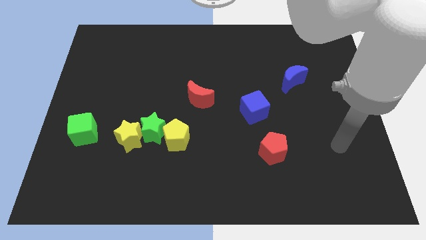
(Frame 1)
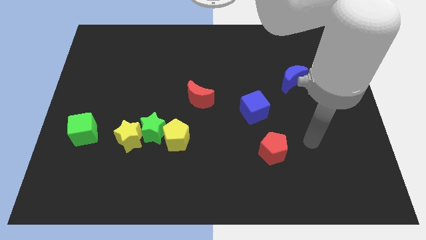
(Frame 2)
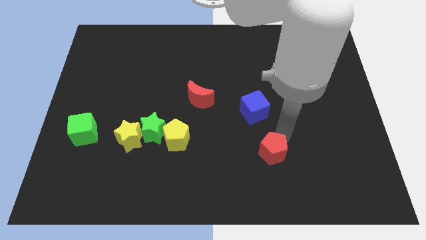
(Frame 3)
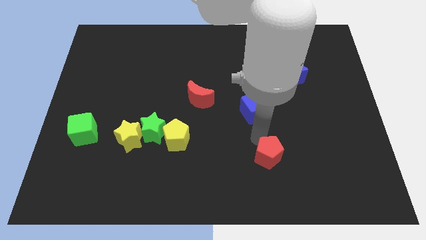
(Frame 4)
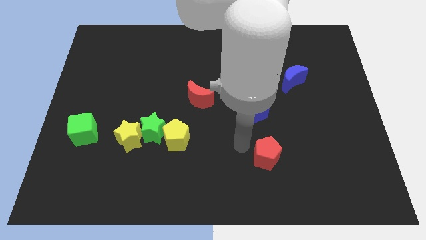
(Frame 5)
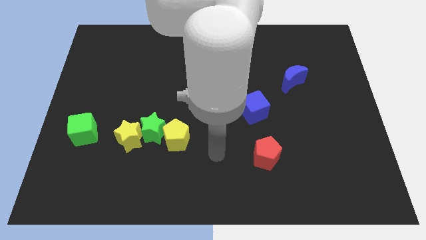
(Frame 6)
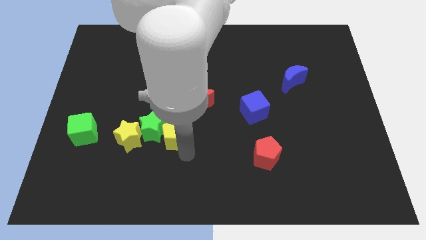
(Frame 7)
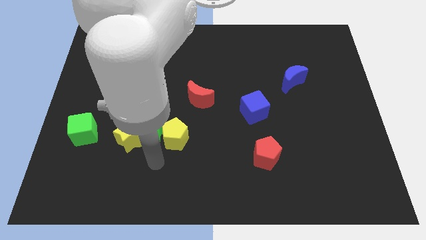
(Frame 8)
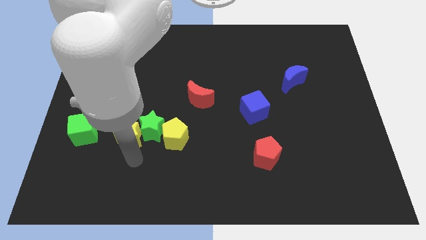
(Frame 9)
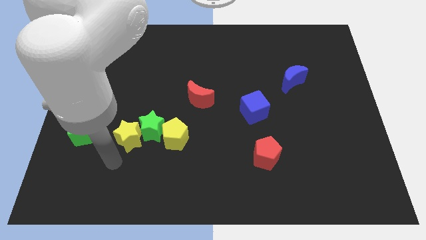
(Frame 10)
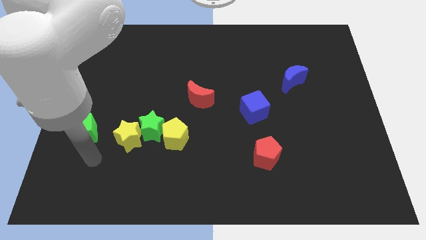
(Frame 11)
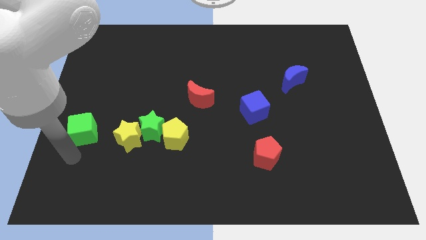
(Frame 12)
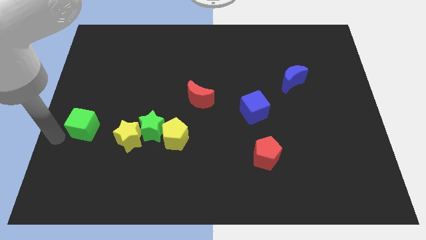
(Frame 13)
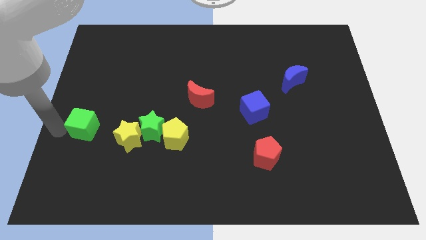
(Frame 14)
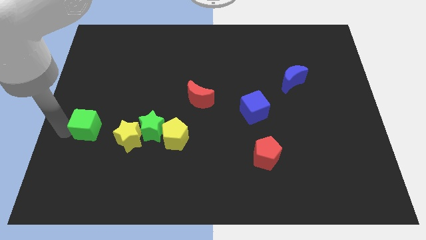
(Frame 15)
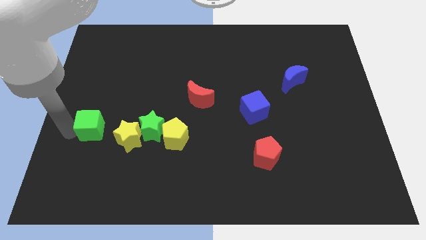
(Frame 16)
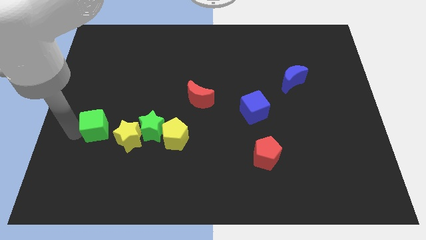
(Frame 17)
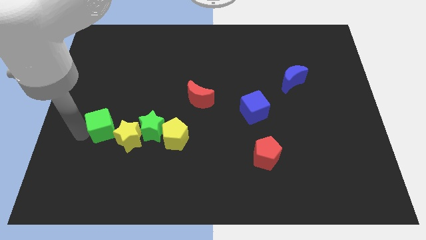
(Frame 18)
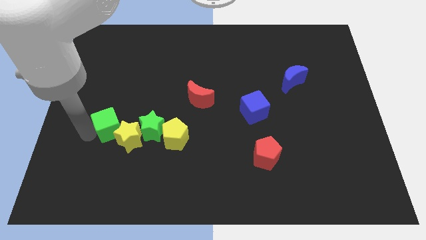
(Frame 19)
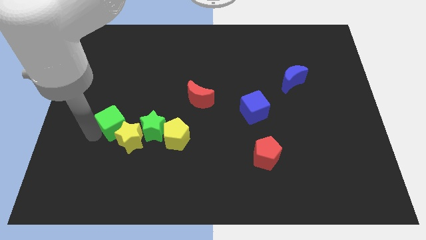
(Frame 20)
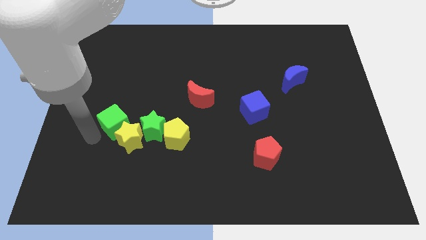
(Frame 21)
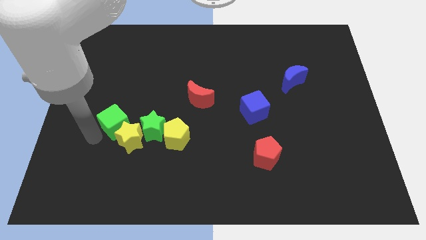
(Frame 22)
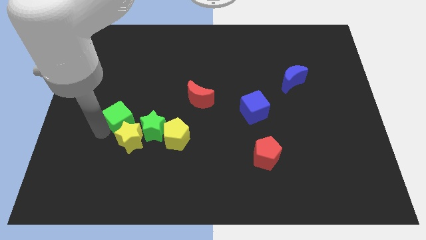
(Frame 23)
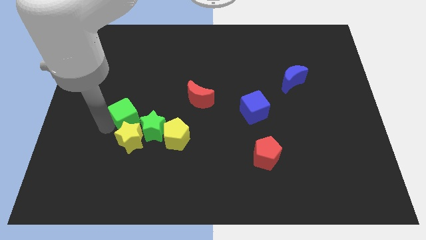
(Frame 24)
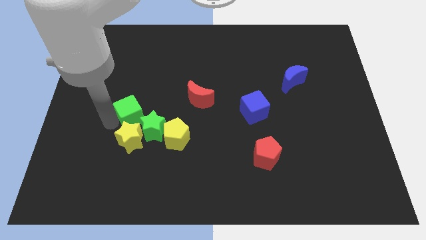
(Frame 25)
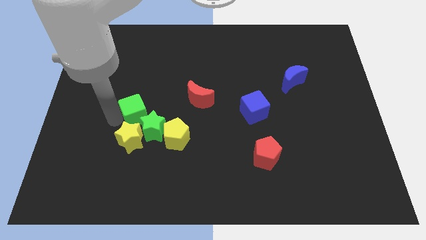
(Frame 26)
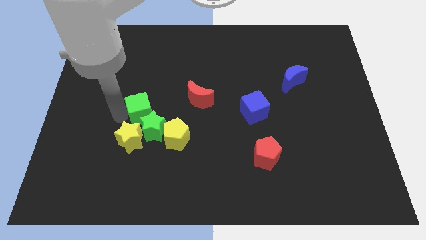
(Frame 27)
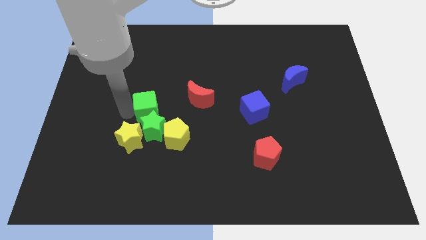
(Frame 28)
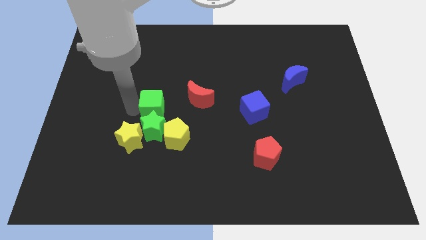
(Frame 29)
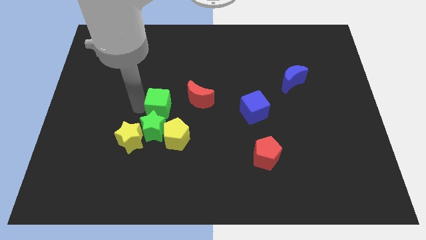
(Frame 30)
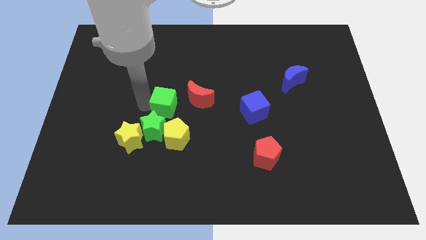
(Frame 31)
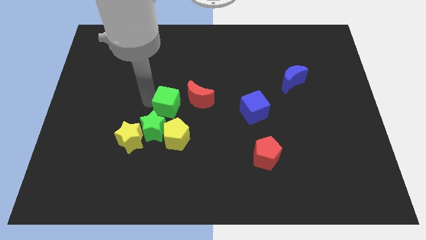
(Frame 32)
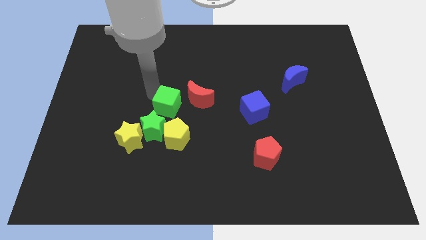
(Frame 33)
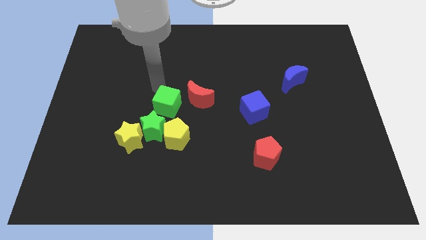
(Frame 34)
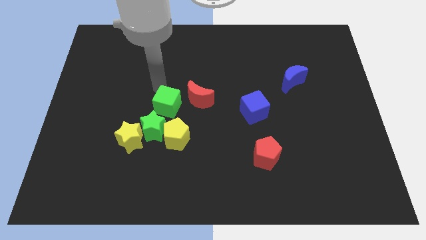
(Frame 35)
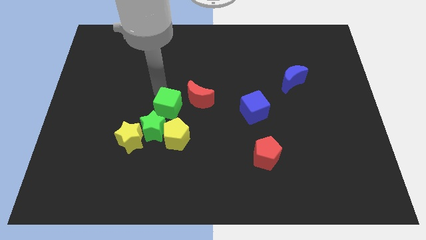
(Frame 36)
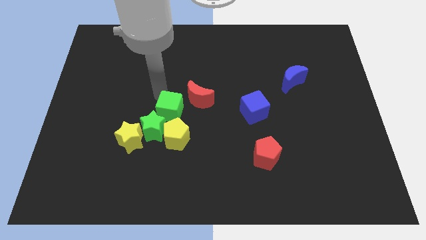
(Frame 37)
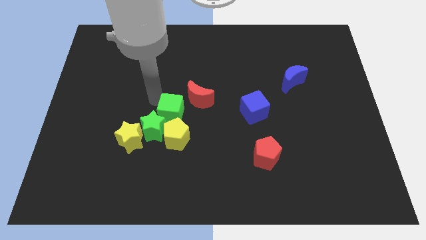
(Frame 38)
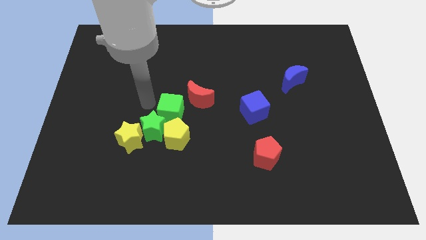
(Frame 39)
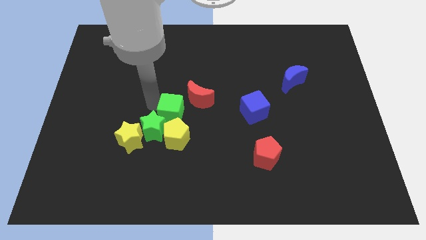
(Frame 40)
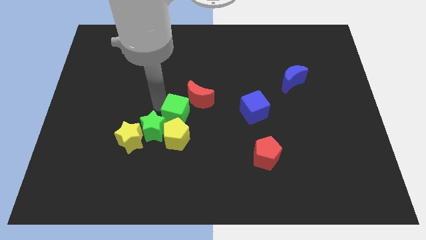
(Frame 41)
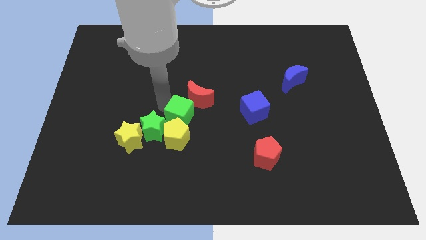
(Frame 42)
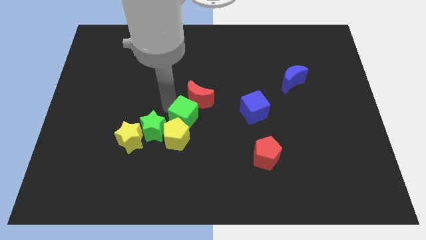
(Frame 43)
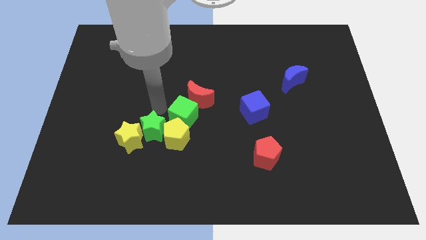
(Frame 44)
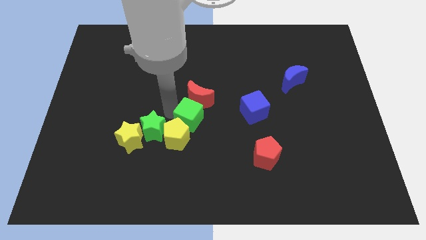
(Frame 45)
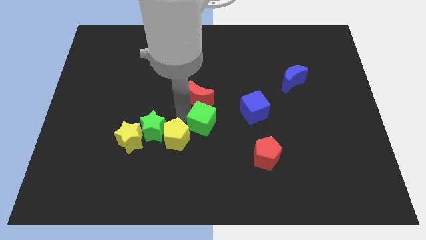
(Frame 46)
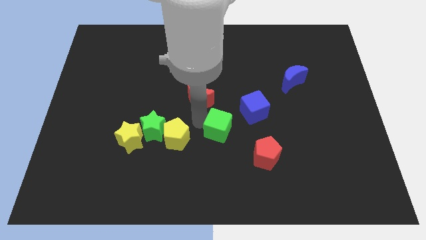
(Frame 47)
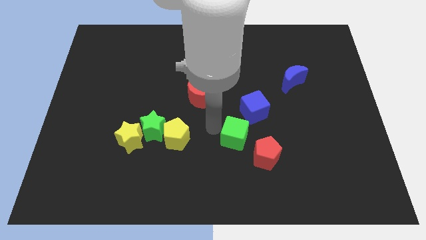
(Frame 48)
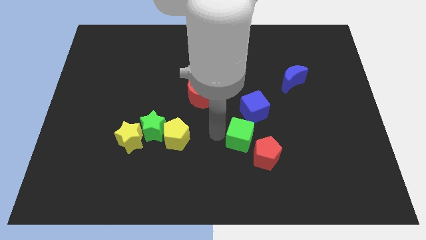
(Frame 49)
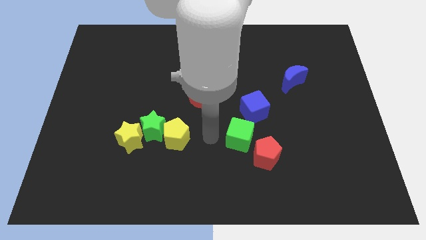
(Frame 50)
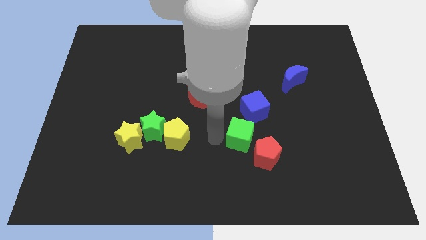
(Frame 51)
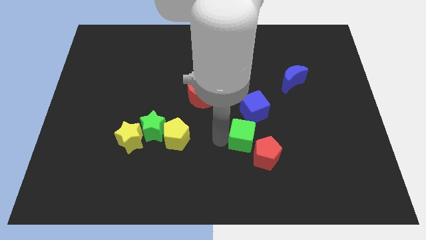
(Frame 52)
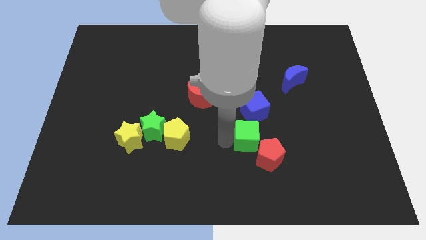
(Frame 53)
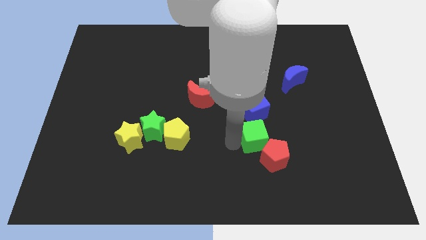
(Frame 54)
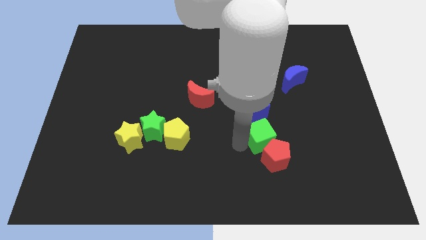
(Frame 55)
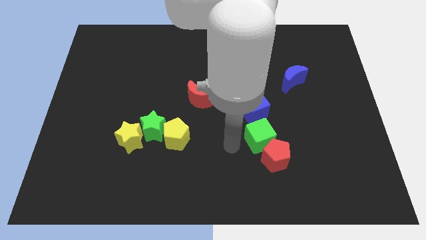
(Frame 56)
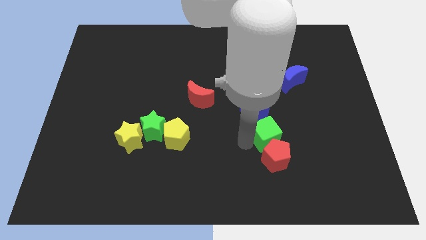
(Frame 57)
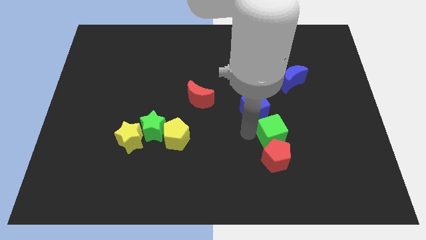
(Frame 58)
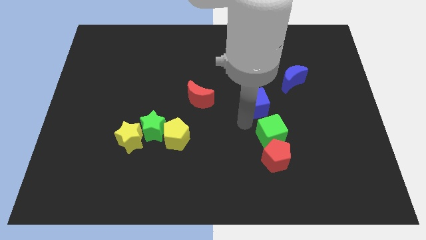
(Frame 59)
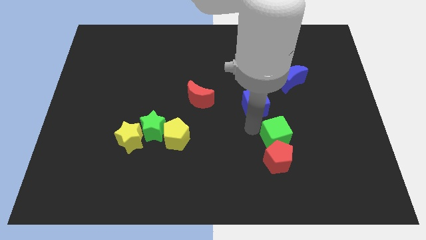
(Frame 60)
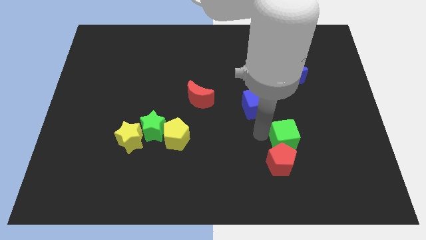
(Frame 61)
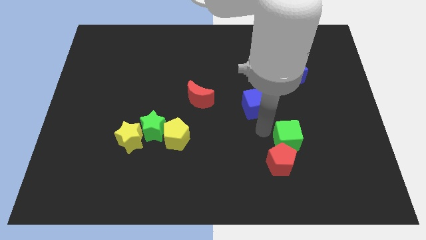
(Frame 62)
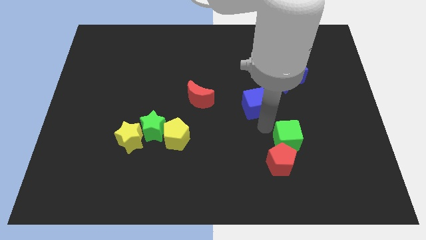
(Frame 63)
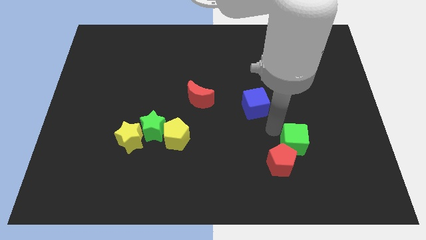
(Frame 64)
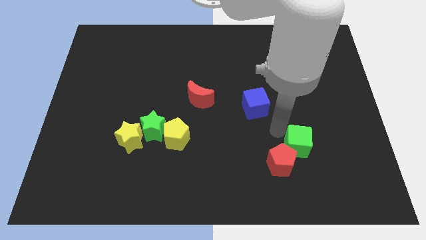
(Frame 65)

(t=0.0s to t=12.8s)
move the green cube to the right of the red pentagon
